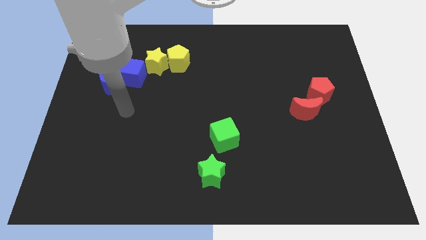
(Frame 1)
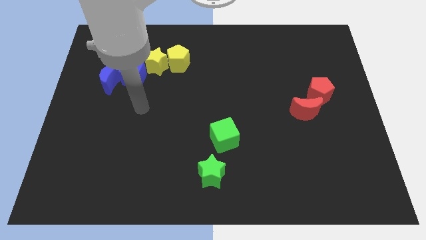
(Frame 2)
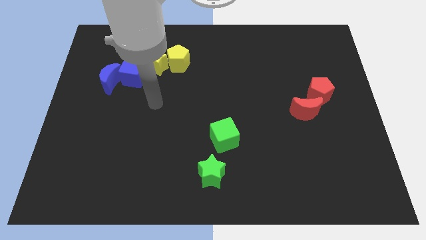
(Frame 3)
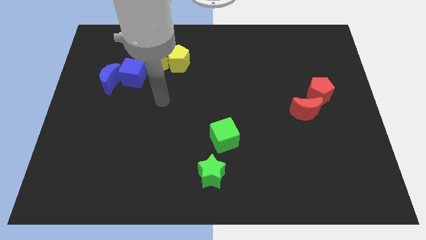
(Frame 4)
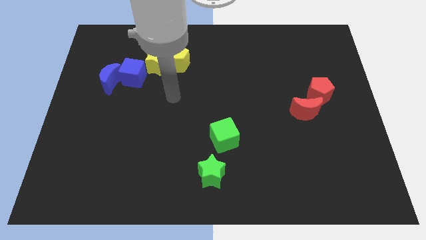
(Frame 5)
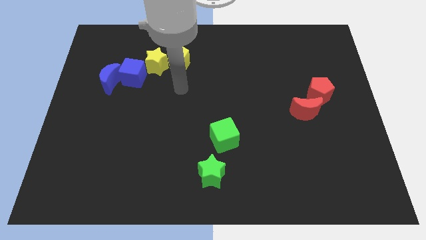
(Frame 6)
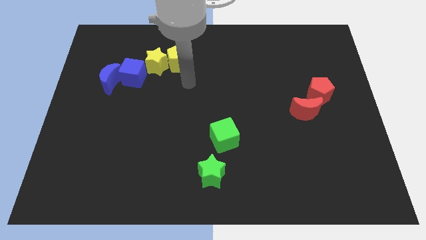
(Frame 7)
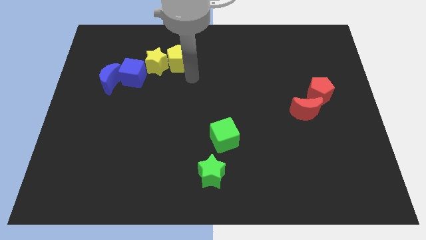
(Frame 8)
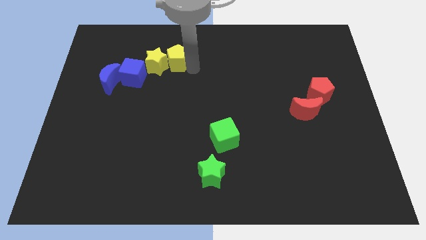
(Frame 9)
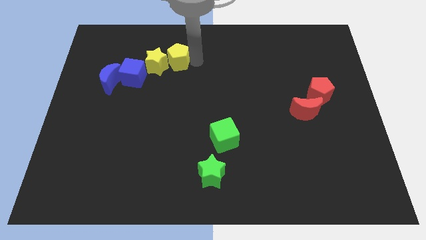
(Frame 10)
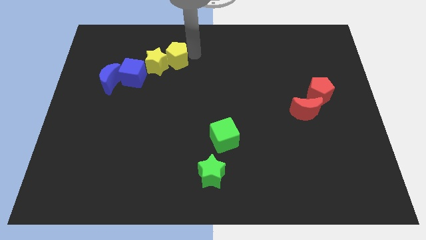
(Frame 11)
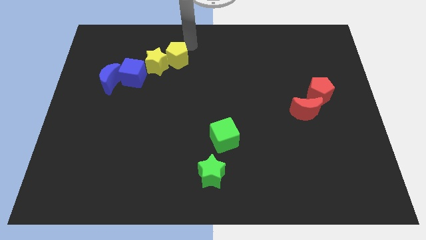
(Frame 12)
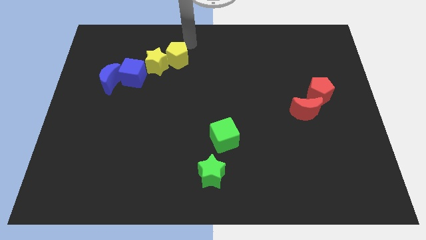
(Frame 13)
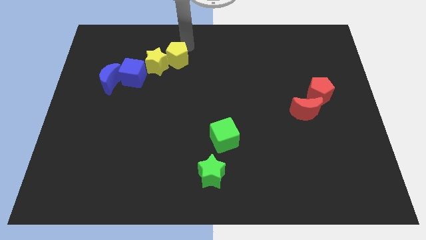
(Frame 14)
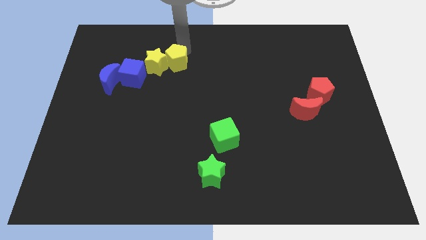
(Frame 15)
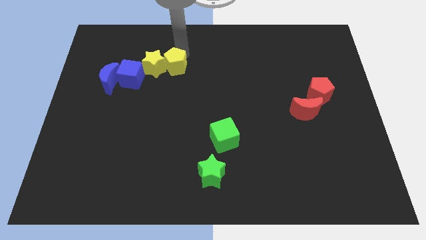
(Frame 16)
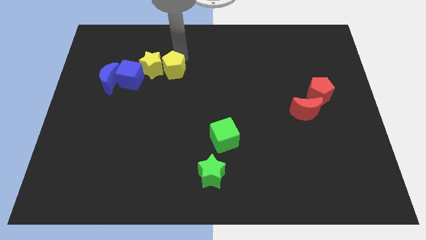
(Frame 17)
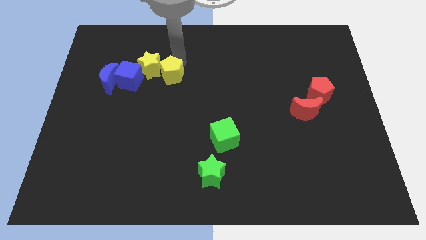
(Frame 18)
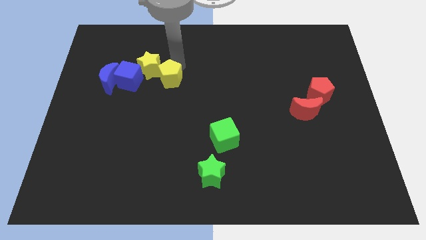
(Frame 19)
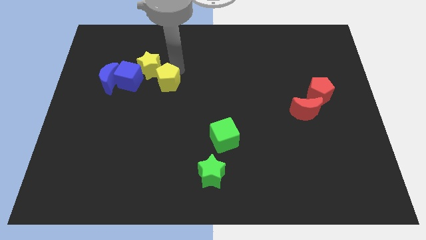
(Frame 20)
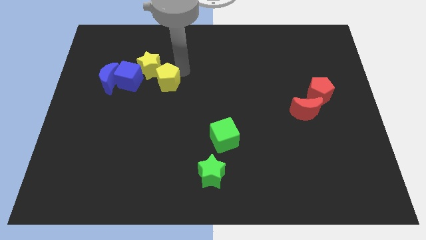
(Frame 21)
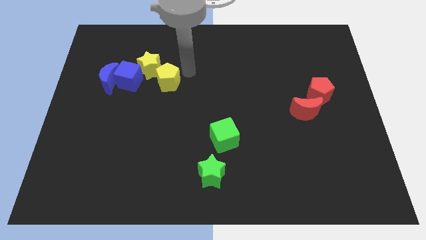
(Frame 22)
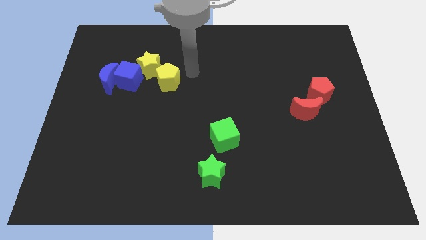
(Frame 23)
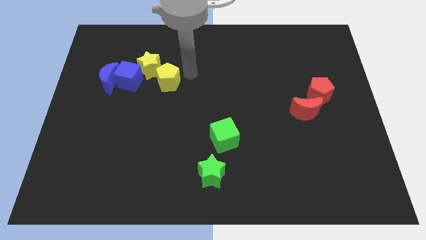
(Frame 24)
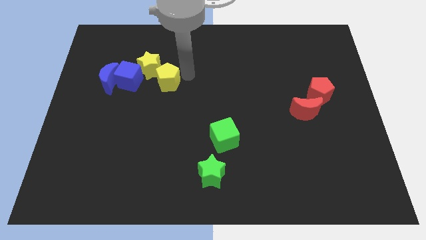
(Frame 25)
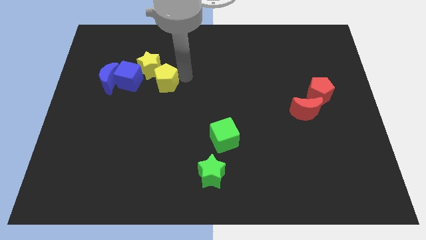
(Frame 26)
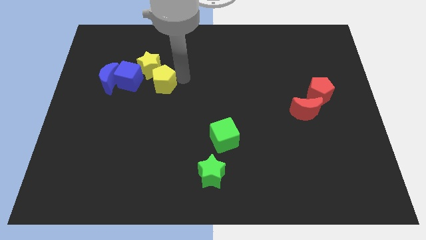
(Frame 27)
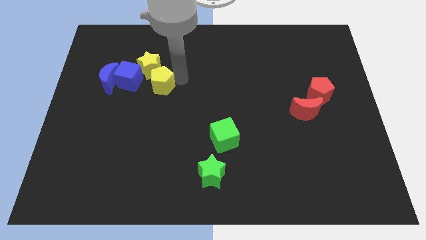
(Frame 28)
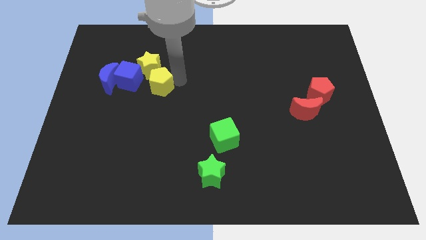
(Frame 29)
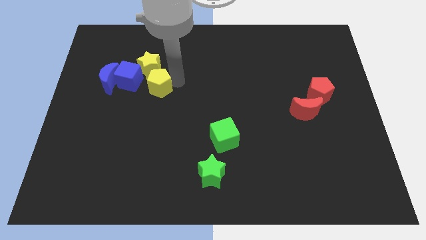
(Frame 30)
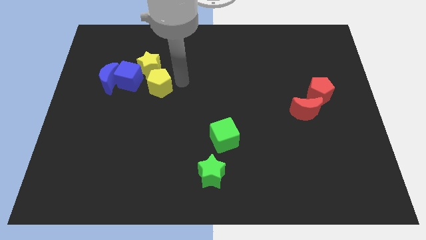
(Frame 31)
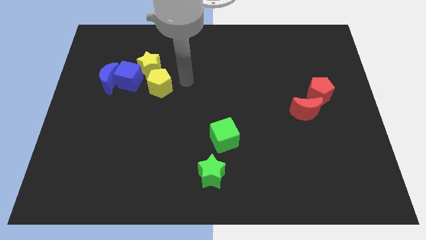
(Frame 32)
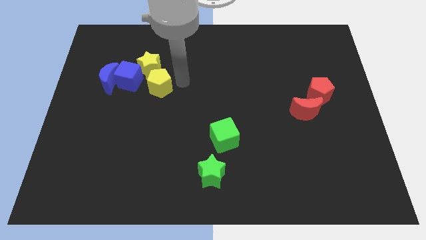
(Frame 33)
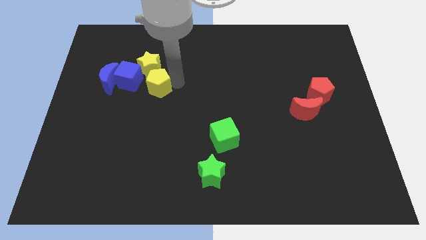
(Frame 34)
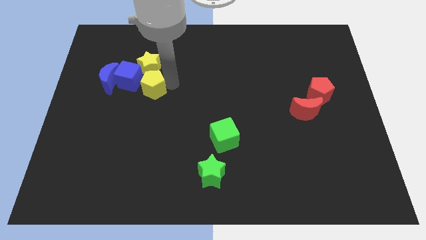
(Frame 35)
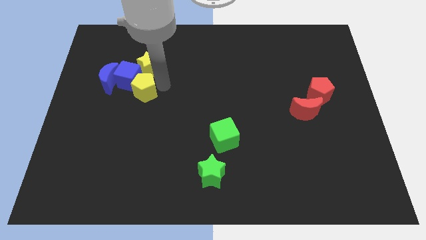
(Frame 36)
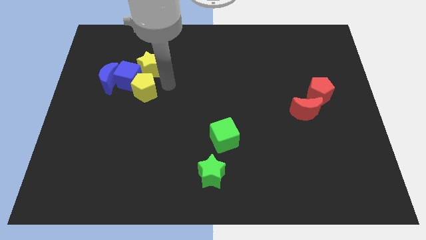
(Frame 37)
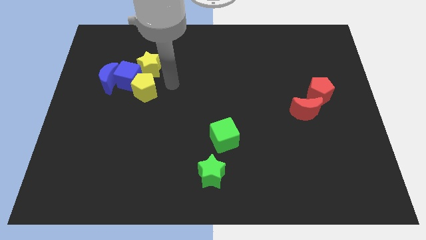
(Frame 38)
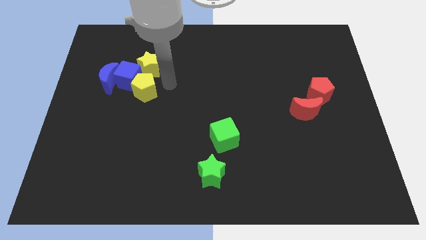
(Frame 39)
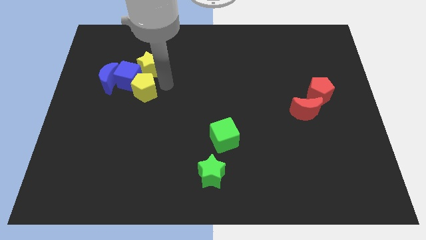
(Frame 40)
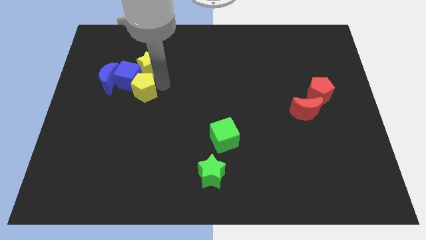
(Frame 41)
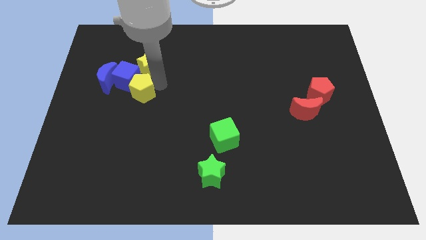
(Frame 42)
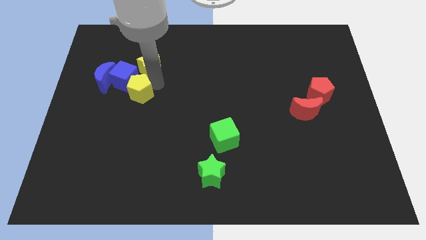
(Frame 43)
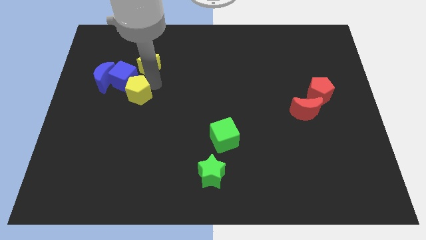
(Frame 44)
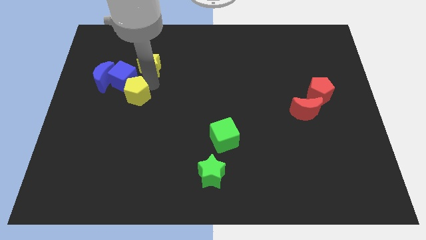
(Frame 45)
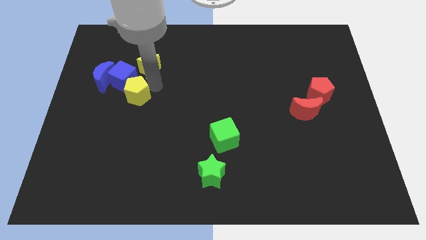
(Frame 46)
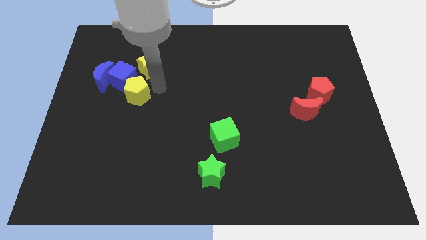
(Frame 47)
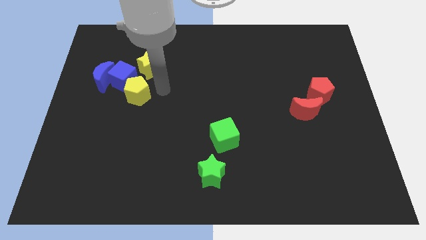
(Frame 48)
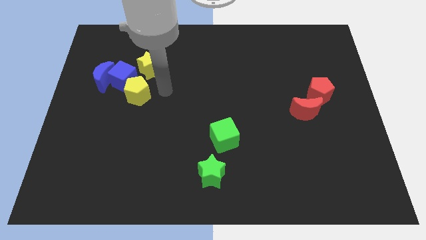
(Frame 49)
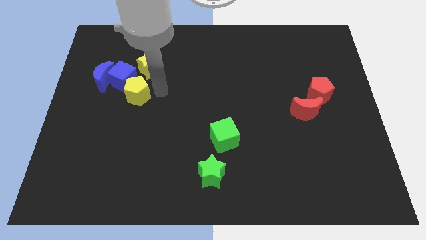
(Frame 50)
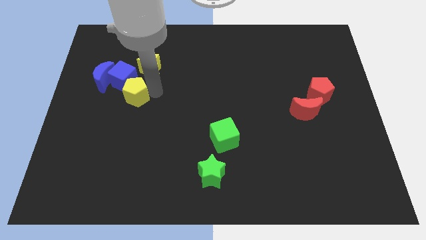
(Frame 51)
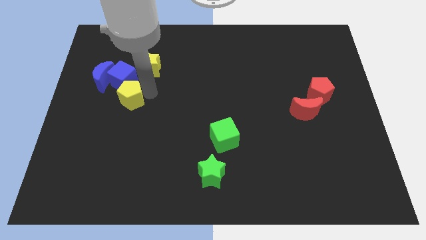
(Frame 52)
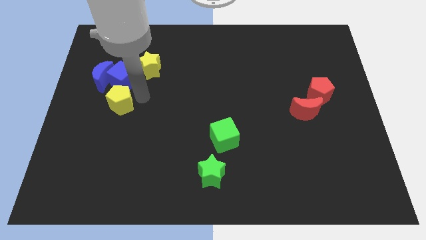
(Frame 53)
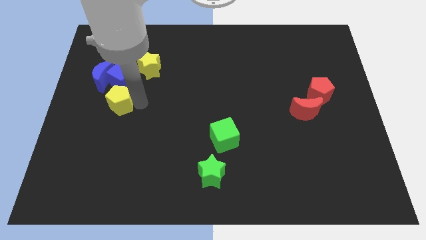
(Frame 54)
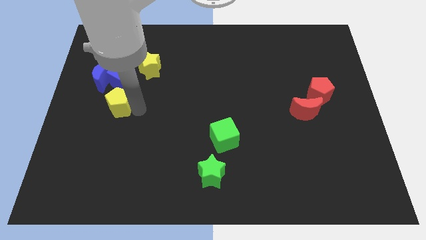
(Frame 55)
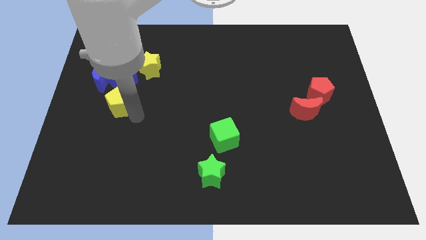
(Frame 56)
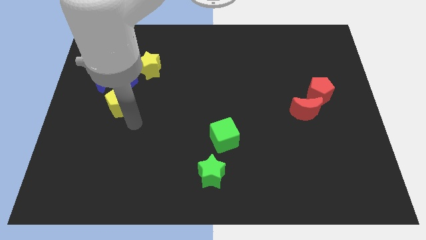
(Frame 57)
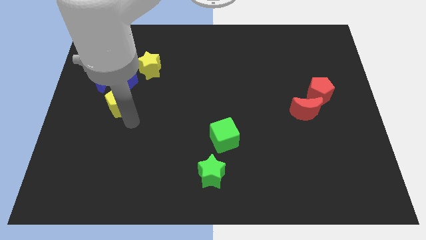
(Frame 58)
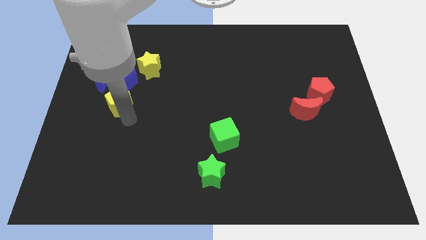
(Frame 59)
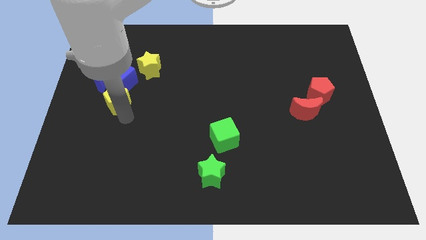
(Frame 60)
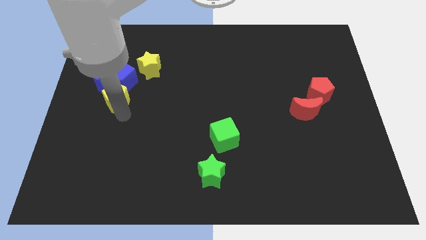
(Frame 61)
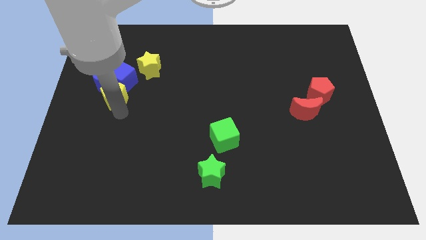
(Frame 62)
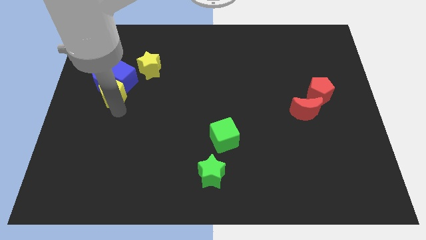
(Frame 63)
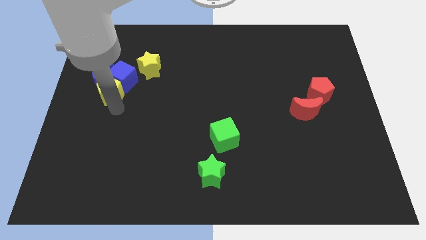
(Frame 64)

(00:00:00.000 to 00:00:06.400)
slide the yellow pentagon close to the blue moon

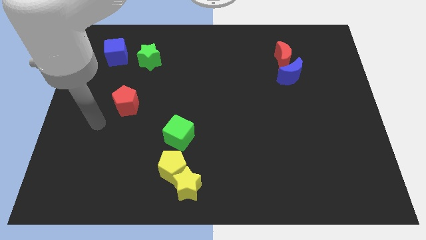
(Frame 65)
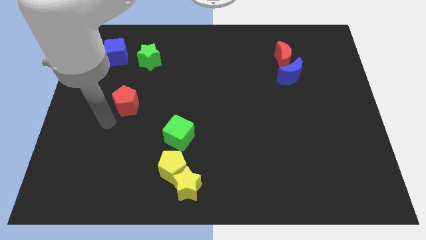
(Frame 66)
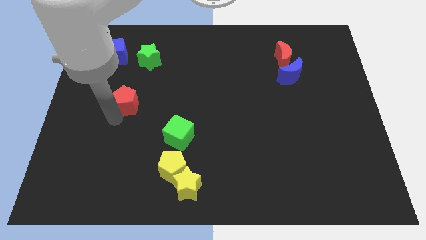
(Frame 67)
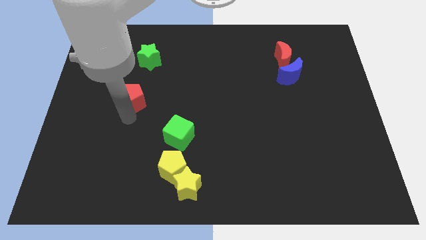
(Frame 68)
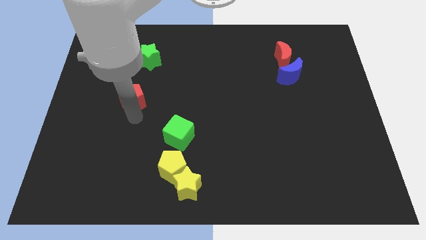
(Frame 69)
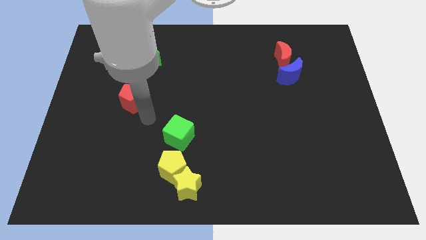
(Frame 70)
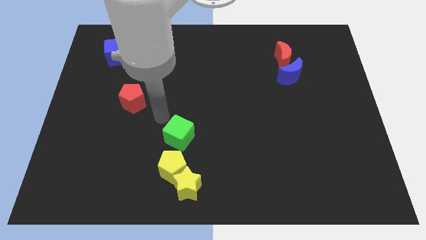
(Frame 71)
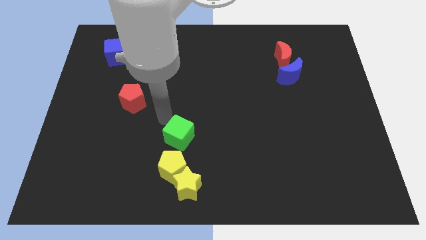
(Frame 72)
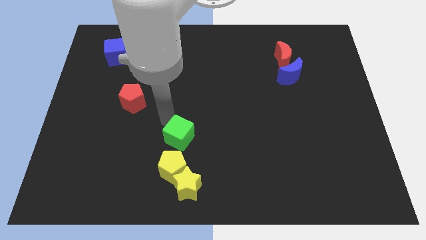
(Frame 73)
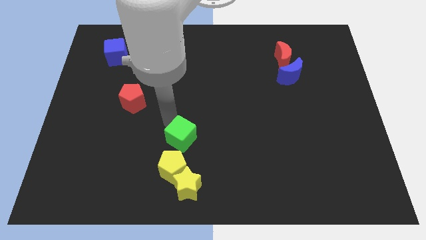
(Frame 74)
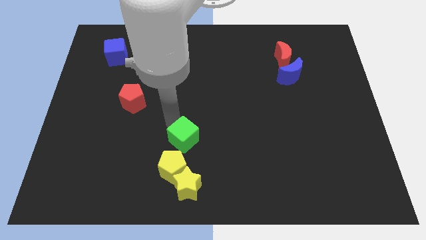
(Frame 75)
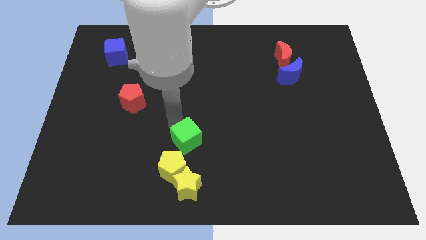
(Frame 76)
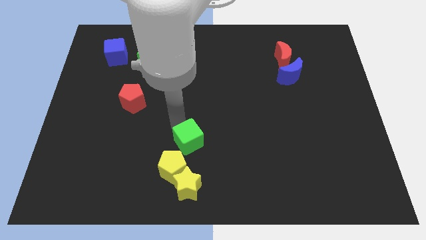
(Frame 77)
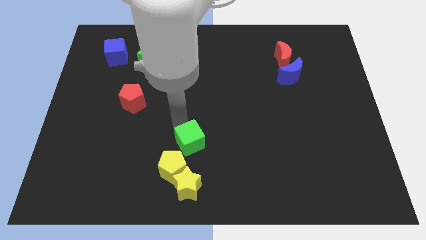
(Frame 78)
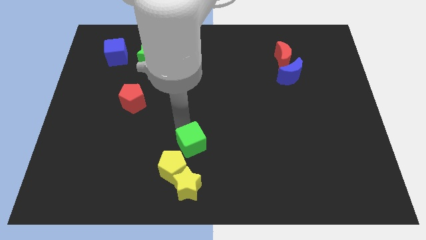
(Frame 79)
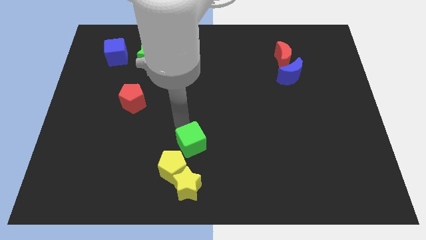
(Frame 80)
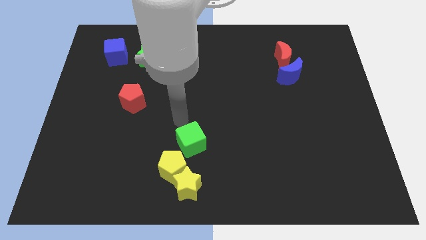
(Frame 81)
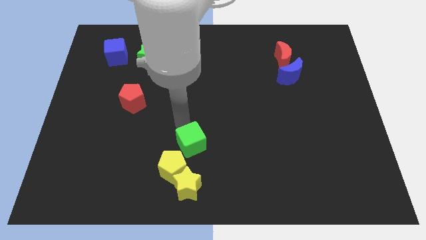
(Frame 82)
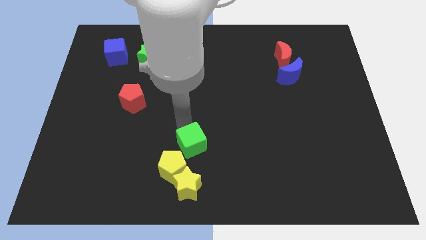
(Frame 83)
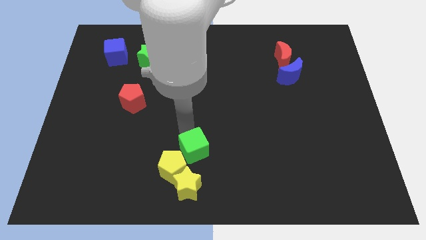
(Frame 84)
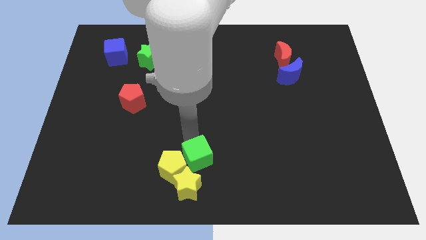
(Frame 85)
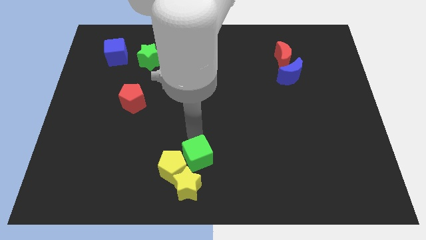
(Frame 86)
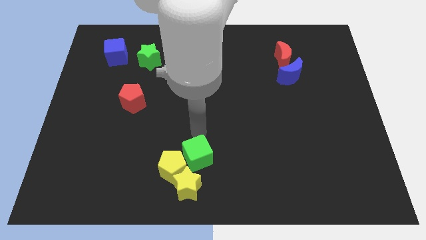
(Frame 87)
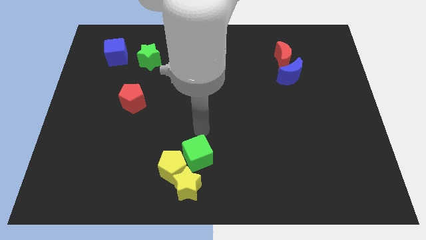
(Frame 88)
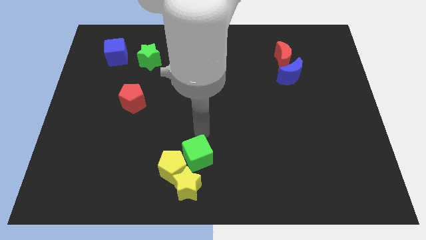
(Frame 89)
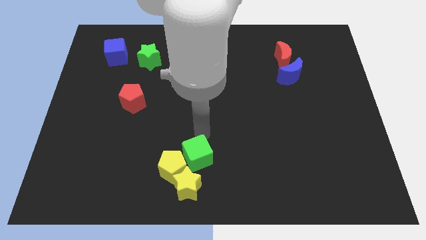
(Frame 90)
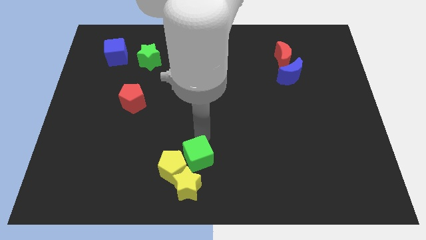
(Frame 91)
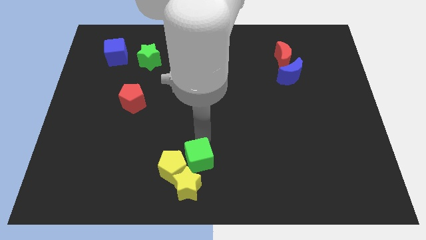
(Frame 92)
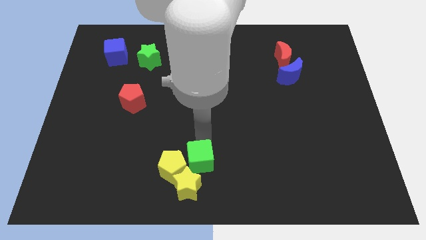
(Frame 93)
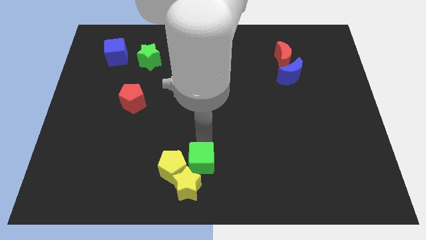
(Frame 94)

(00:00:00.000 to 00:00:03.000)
push the green cube next to the yellow star
